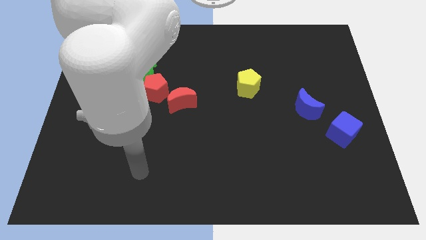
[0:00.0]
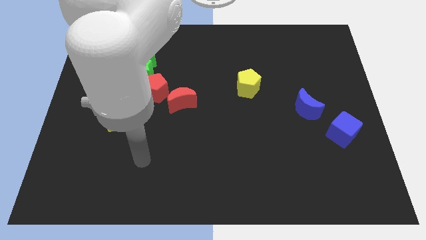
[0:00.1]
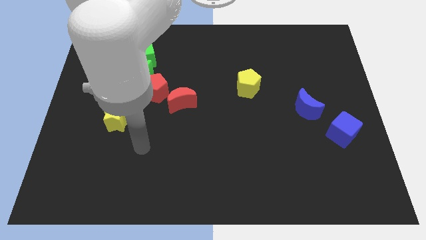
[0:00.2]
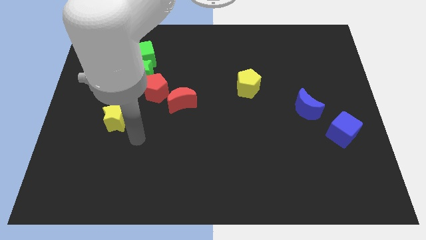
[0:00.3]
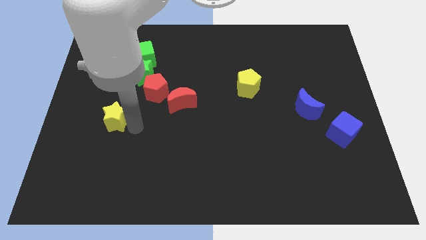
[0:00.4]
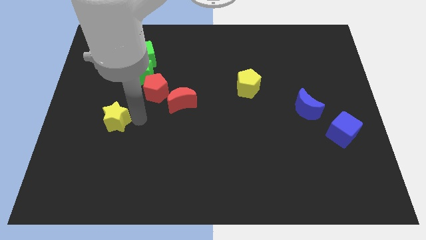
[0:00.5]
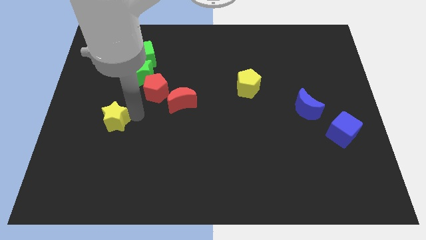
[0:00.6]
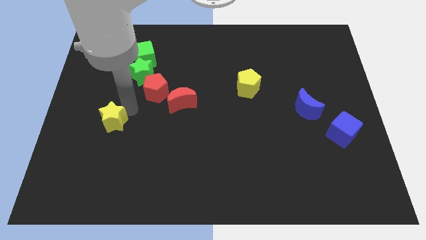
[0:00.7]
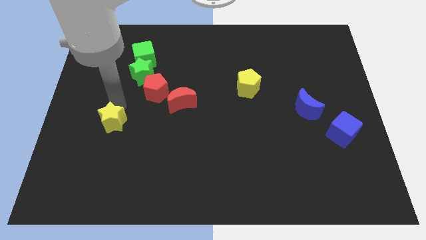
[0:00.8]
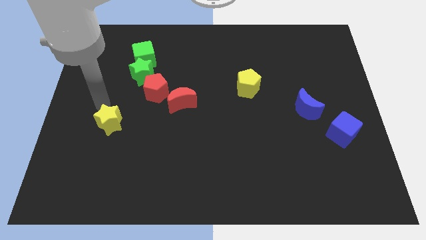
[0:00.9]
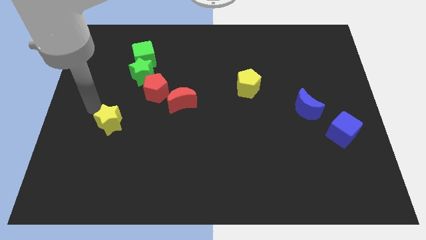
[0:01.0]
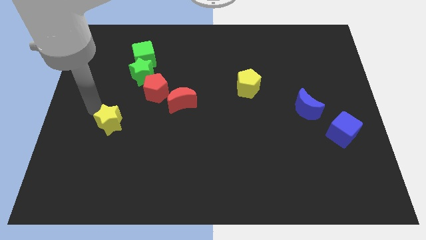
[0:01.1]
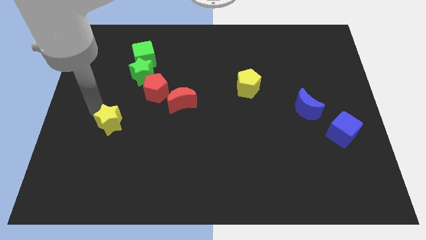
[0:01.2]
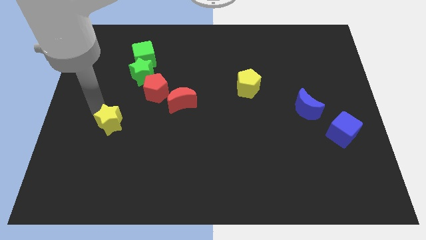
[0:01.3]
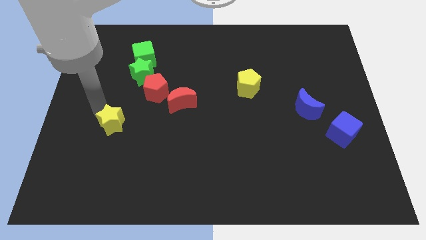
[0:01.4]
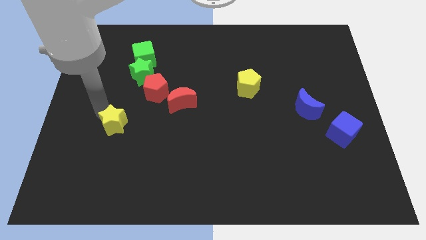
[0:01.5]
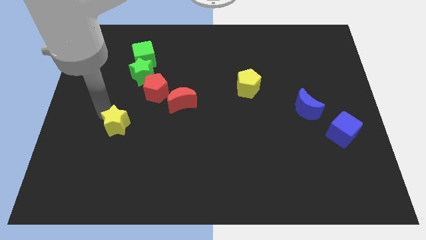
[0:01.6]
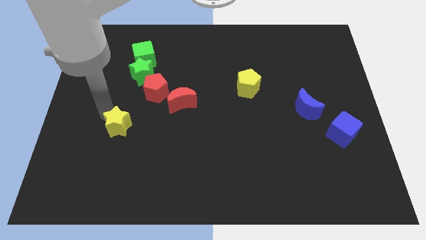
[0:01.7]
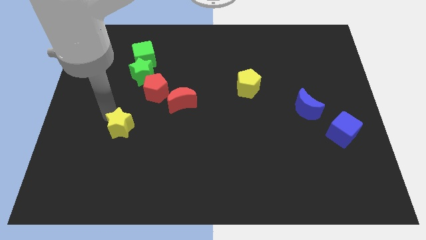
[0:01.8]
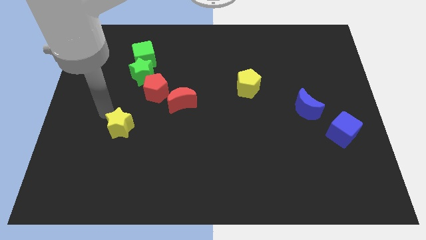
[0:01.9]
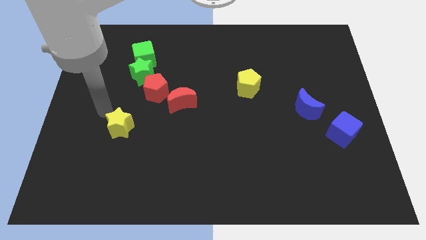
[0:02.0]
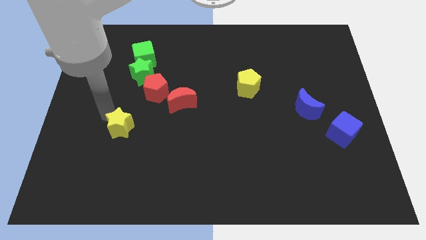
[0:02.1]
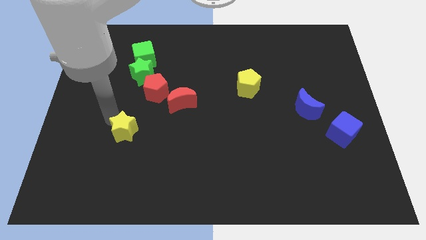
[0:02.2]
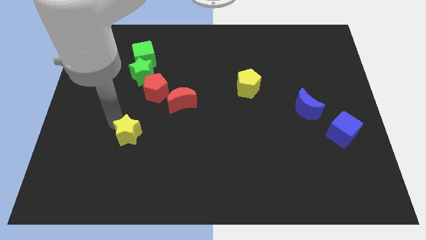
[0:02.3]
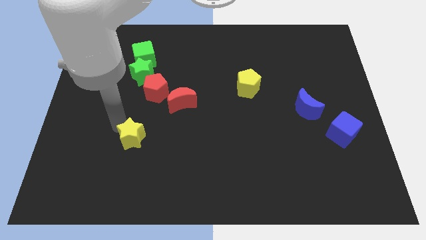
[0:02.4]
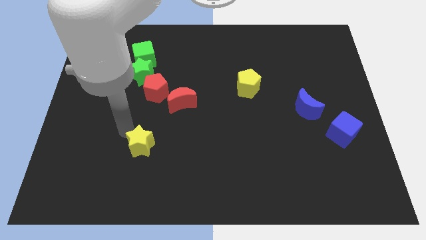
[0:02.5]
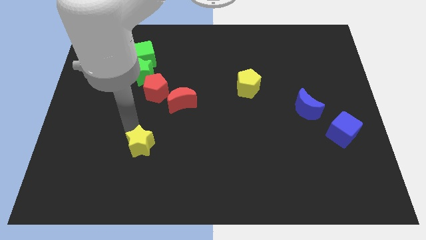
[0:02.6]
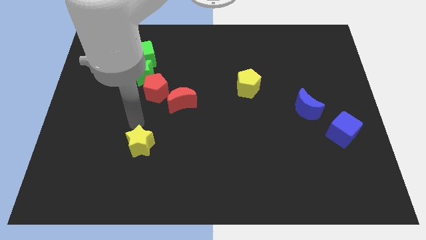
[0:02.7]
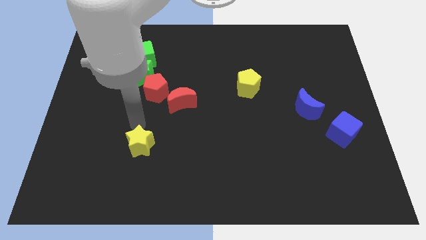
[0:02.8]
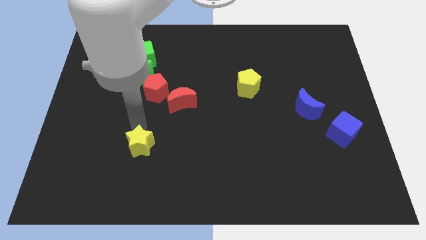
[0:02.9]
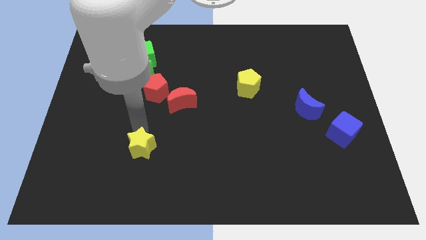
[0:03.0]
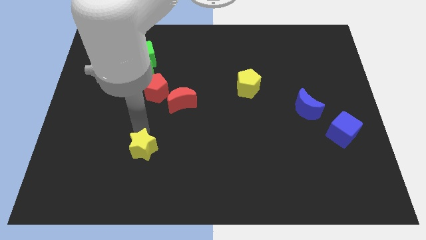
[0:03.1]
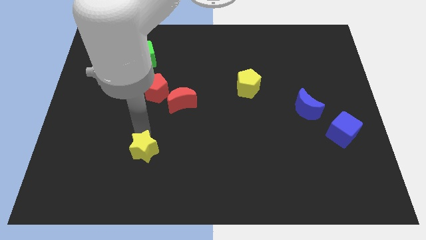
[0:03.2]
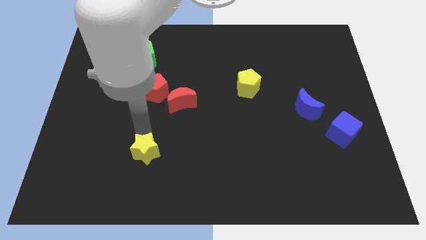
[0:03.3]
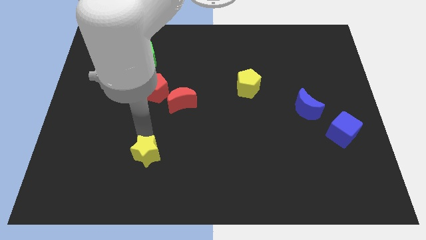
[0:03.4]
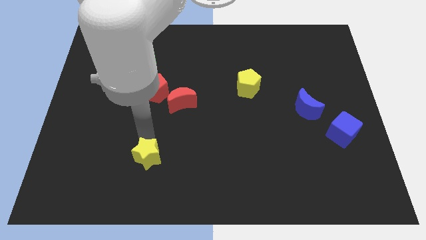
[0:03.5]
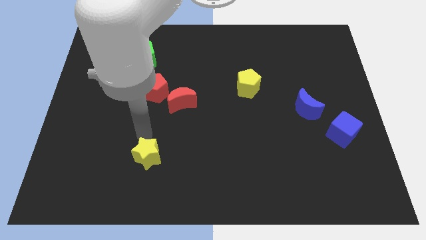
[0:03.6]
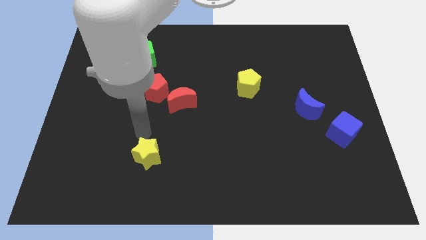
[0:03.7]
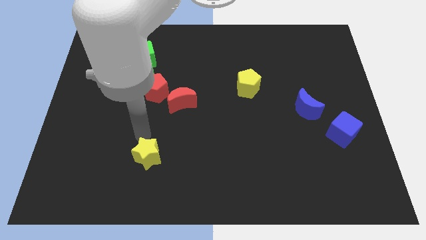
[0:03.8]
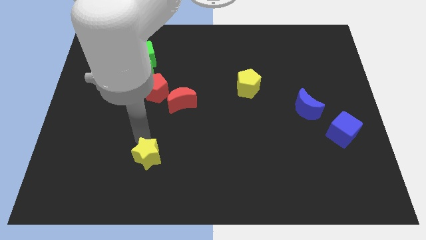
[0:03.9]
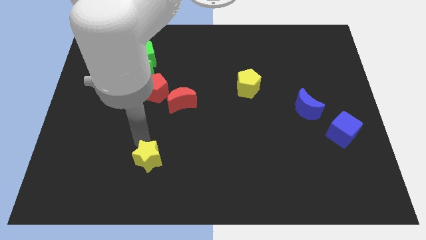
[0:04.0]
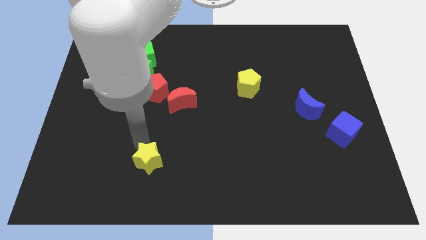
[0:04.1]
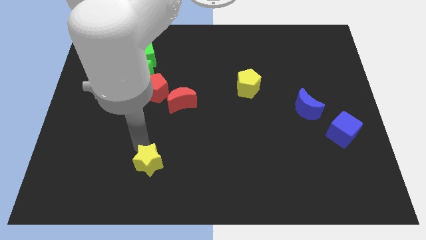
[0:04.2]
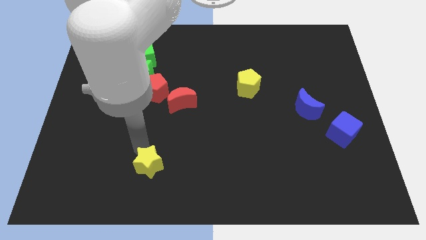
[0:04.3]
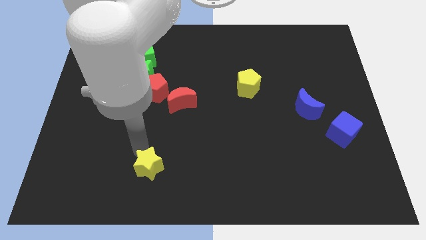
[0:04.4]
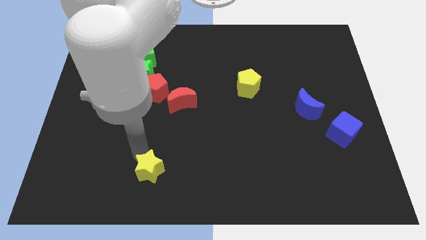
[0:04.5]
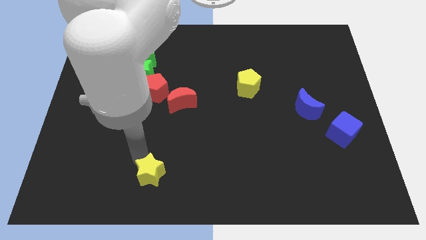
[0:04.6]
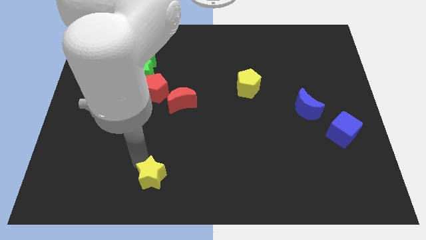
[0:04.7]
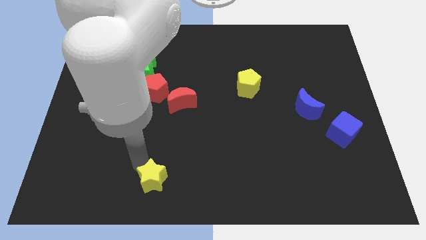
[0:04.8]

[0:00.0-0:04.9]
move the yellow star to the bottom

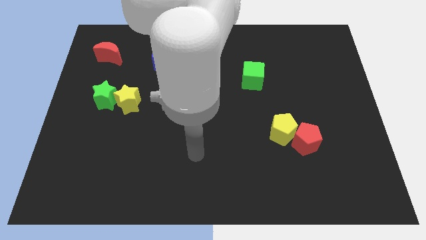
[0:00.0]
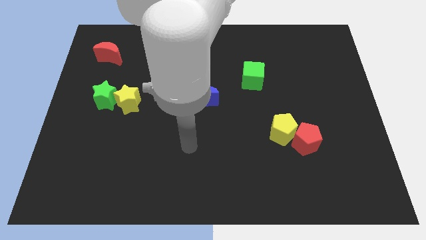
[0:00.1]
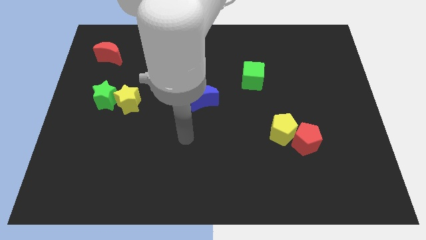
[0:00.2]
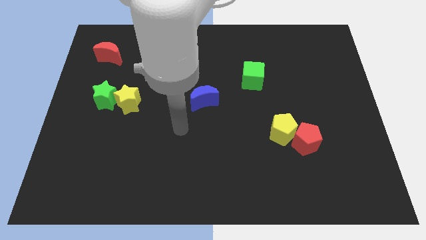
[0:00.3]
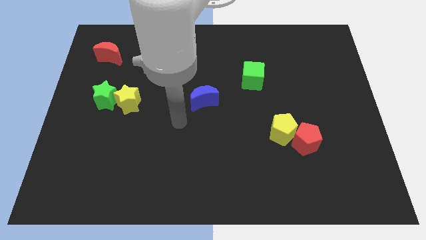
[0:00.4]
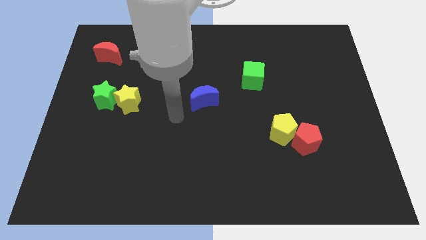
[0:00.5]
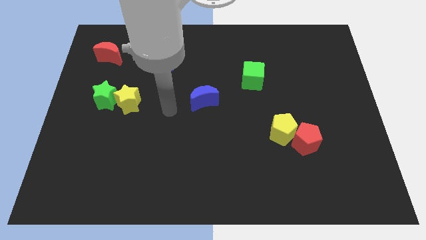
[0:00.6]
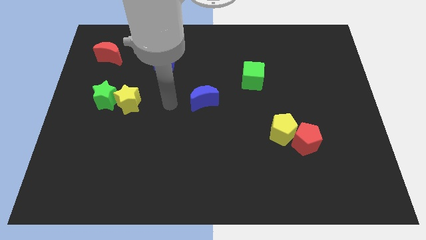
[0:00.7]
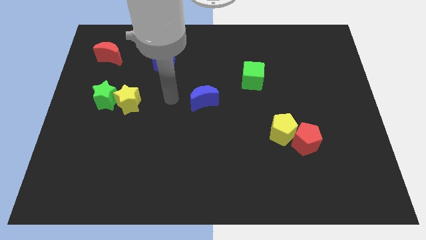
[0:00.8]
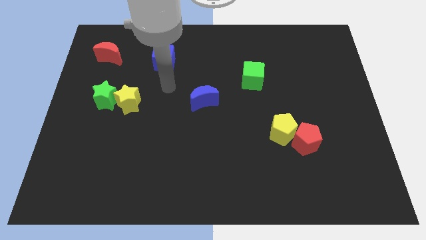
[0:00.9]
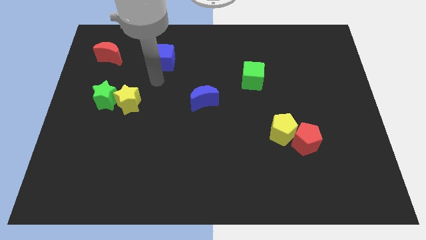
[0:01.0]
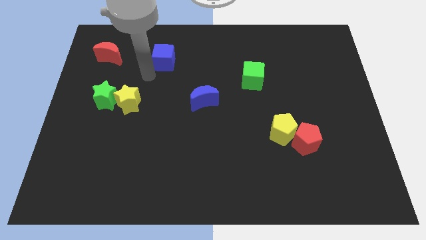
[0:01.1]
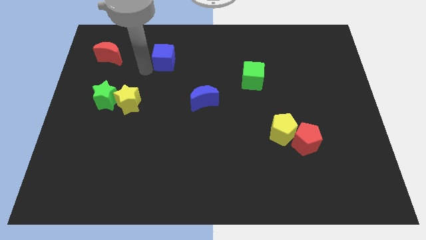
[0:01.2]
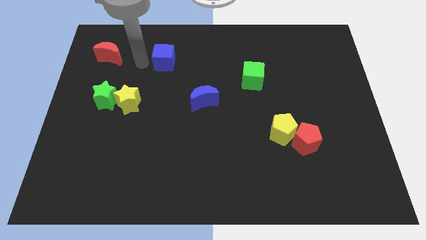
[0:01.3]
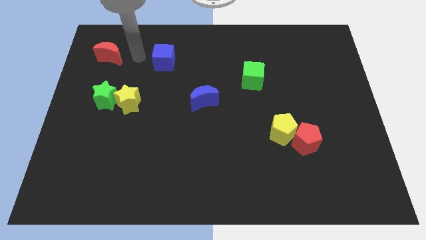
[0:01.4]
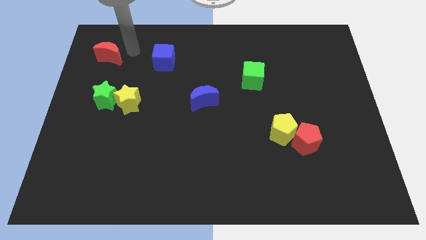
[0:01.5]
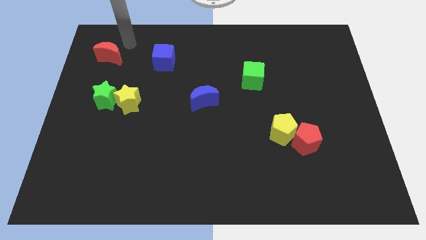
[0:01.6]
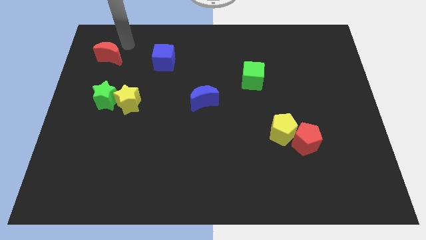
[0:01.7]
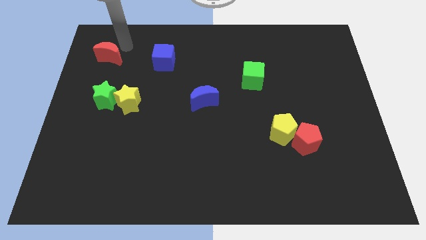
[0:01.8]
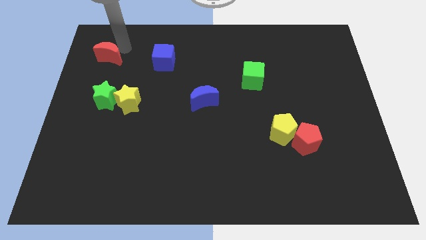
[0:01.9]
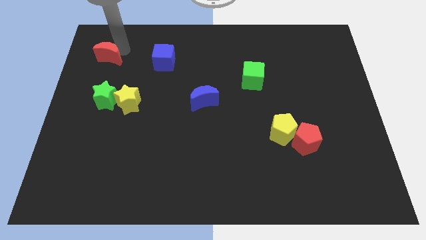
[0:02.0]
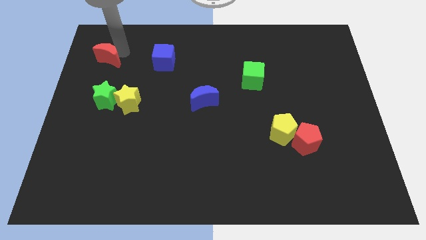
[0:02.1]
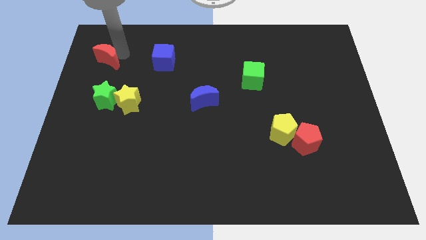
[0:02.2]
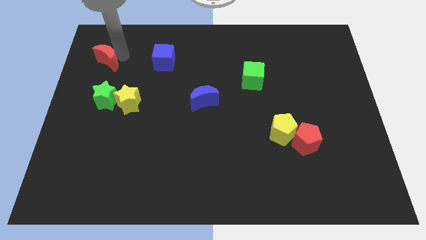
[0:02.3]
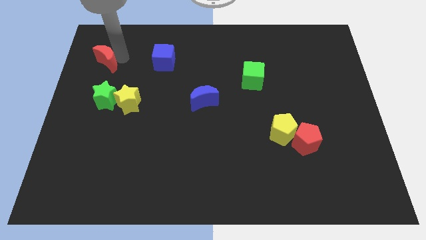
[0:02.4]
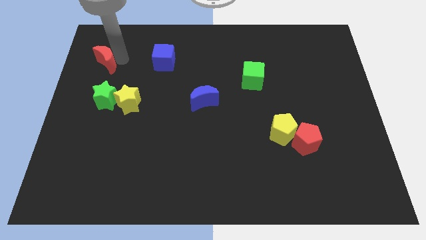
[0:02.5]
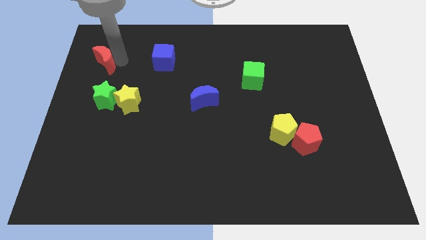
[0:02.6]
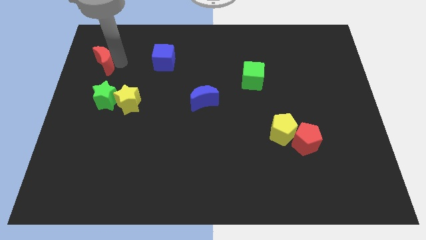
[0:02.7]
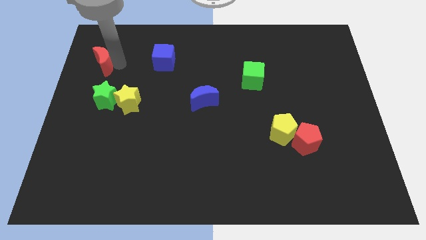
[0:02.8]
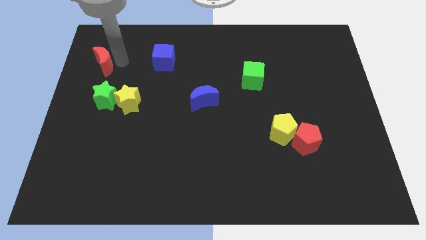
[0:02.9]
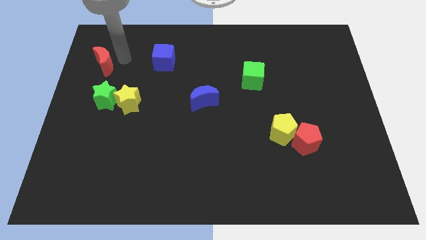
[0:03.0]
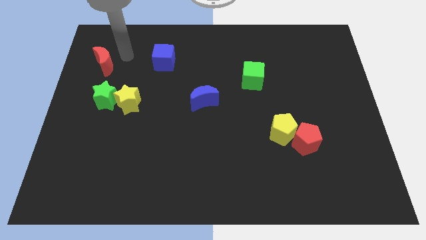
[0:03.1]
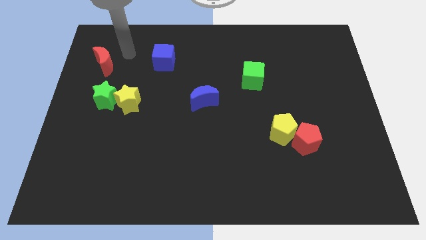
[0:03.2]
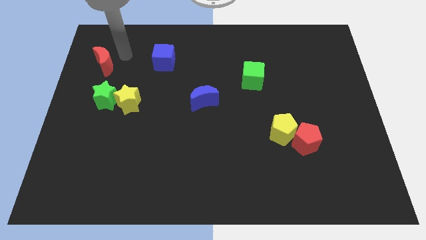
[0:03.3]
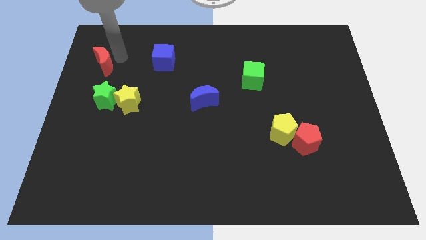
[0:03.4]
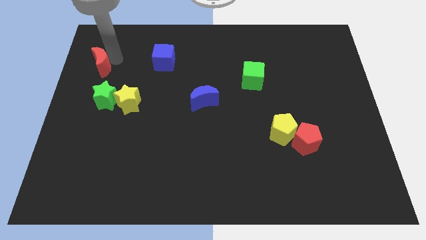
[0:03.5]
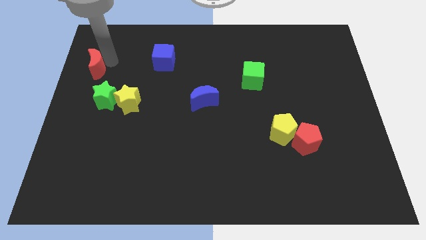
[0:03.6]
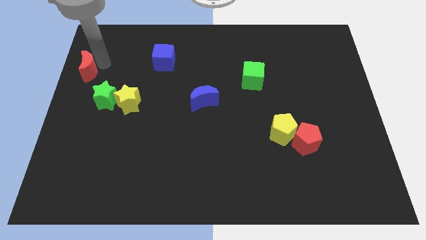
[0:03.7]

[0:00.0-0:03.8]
move the red moon to the center left
